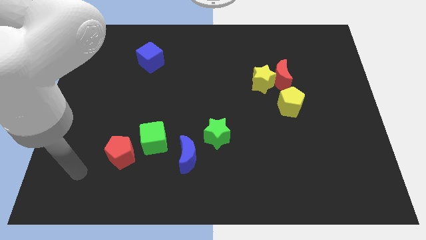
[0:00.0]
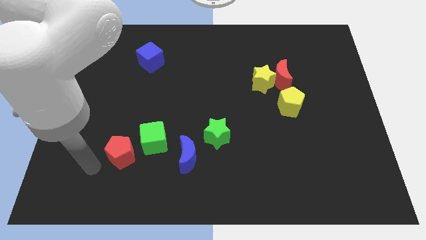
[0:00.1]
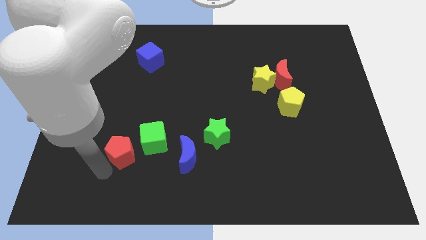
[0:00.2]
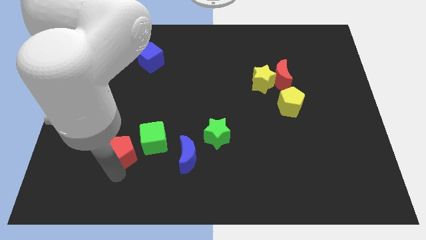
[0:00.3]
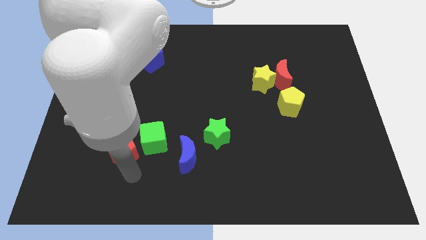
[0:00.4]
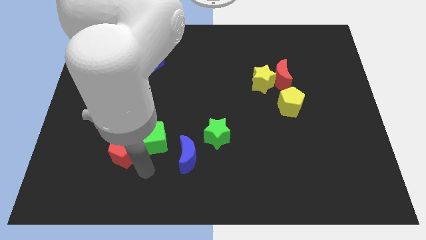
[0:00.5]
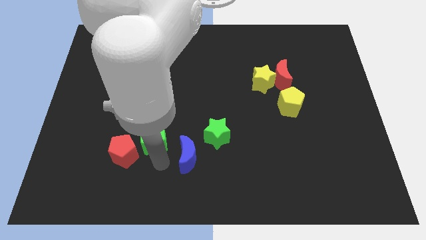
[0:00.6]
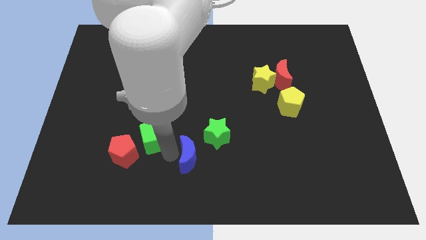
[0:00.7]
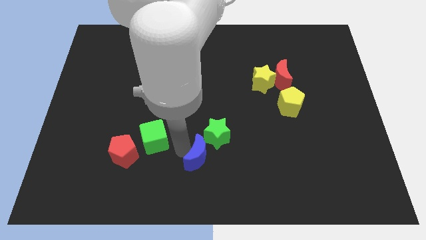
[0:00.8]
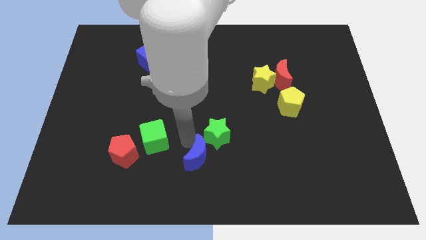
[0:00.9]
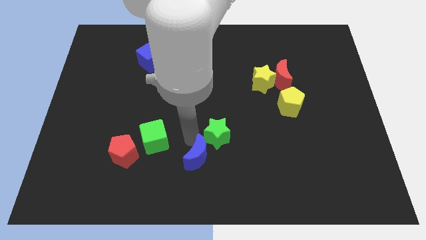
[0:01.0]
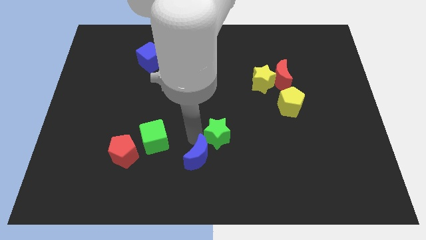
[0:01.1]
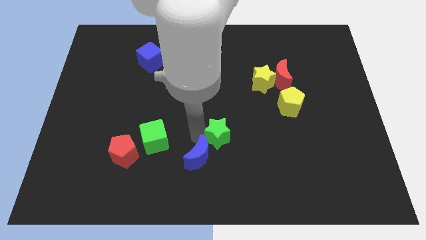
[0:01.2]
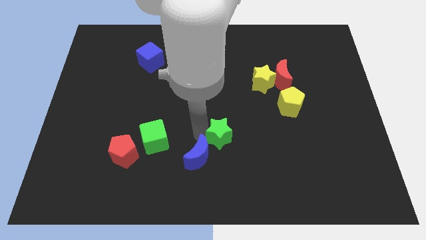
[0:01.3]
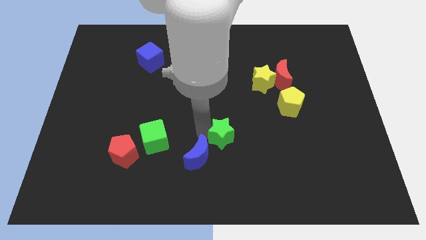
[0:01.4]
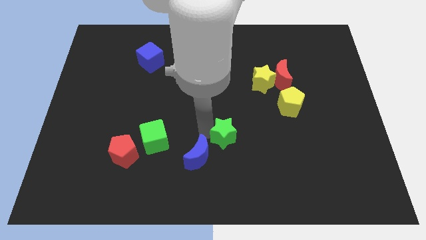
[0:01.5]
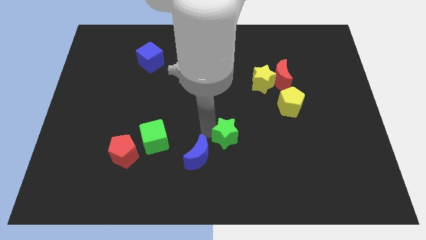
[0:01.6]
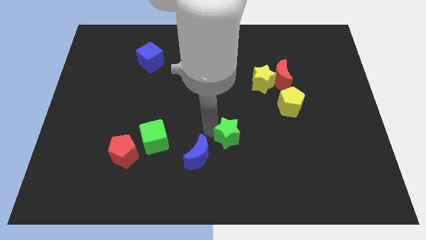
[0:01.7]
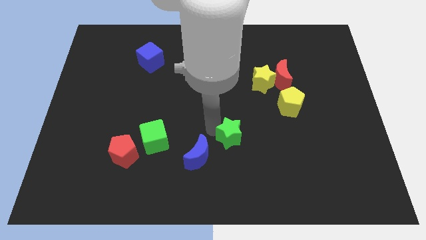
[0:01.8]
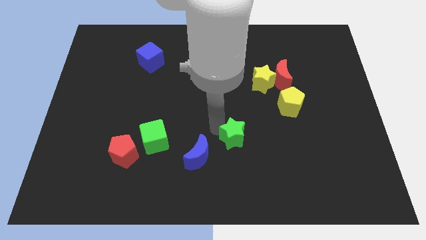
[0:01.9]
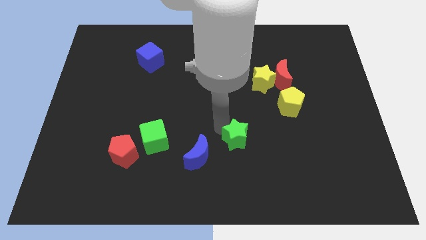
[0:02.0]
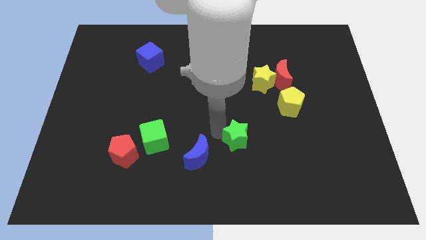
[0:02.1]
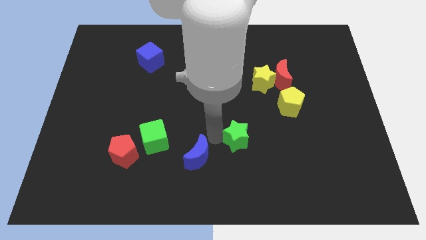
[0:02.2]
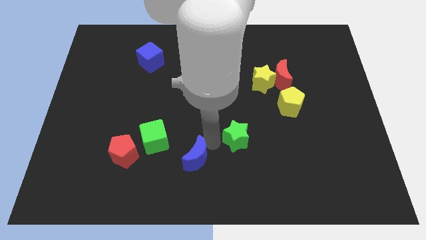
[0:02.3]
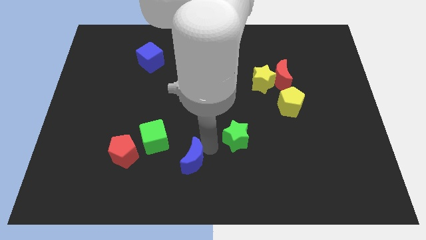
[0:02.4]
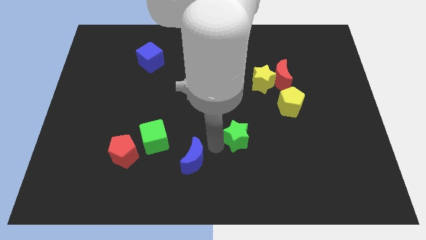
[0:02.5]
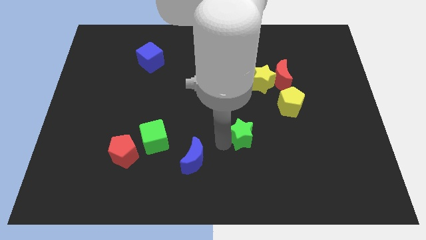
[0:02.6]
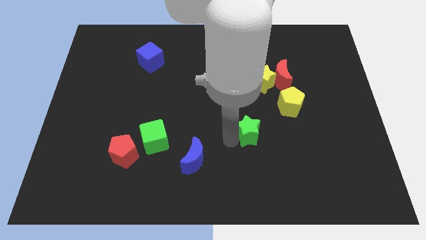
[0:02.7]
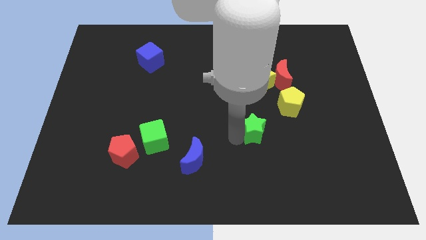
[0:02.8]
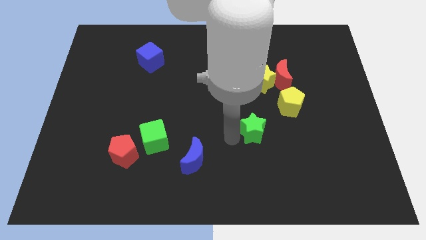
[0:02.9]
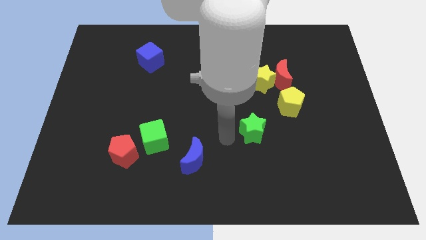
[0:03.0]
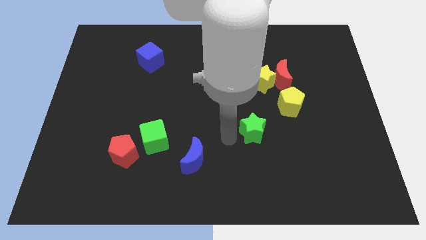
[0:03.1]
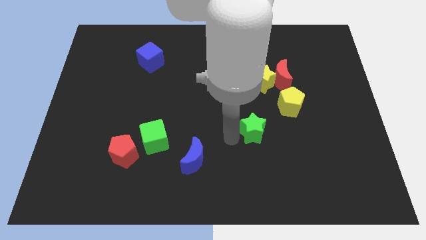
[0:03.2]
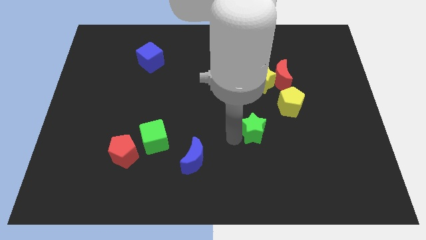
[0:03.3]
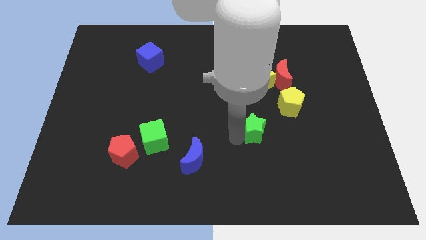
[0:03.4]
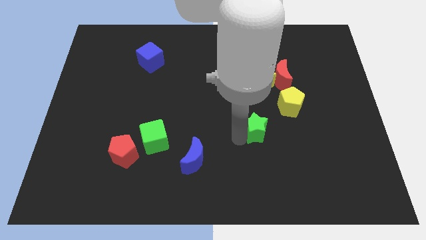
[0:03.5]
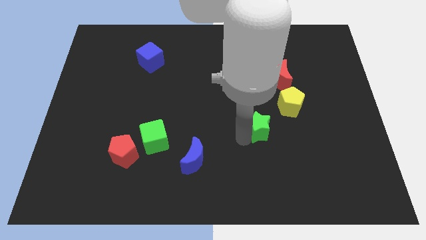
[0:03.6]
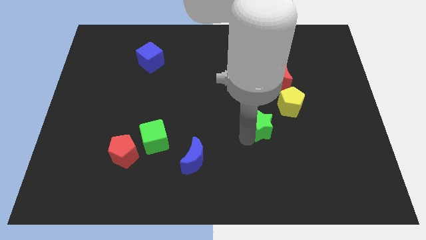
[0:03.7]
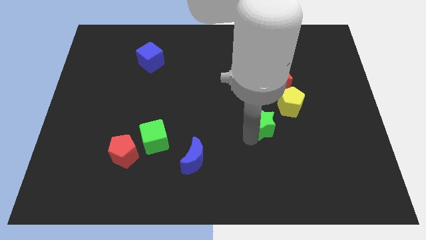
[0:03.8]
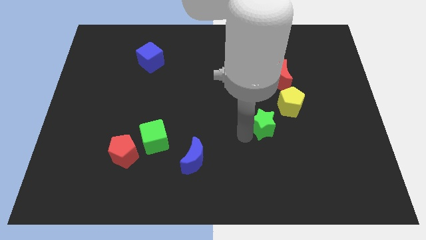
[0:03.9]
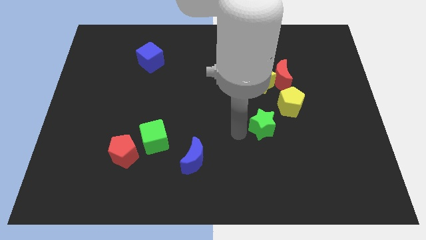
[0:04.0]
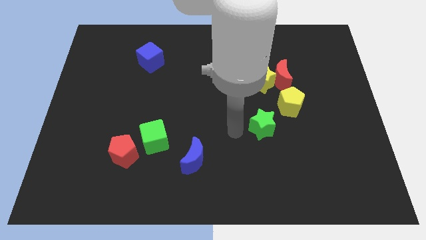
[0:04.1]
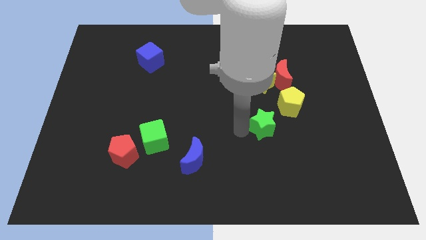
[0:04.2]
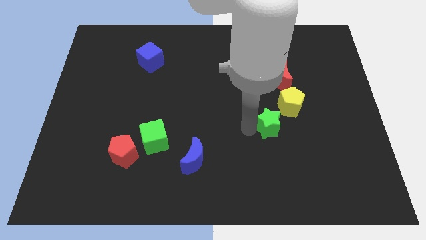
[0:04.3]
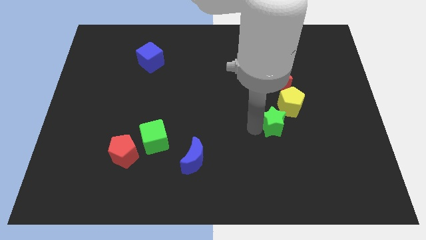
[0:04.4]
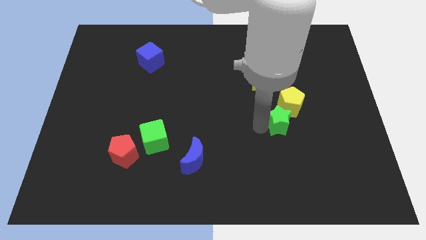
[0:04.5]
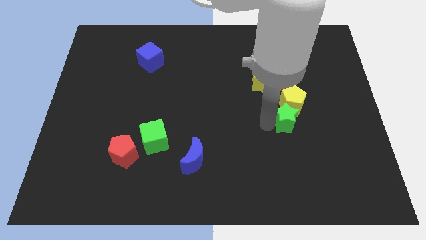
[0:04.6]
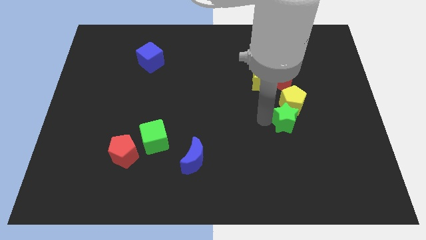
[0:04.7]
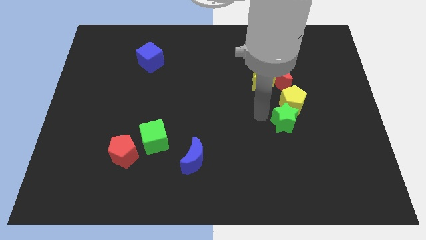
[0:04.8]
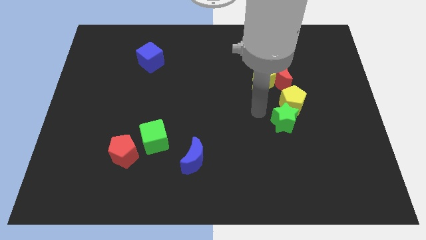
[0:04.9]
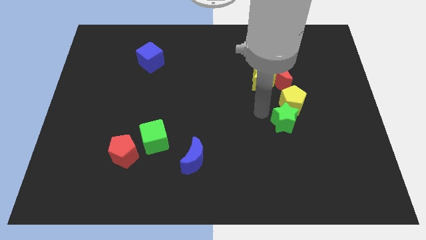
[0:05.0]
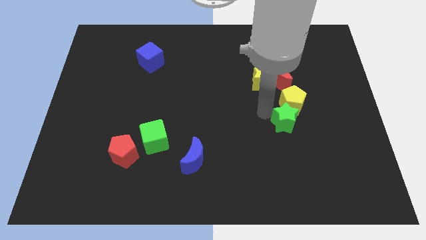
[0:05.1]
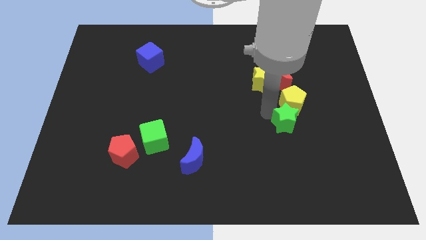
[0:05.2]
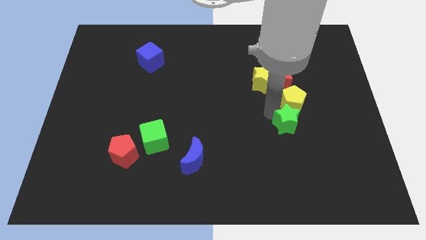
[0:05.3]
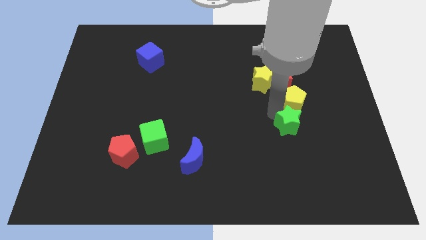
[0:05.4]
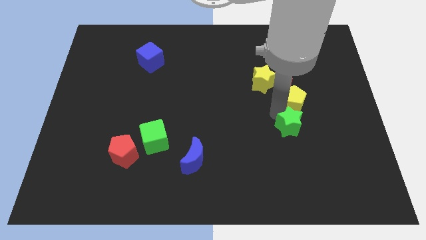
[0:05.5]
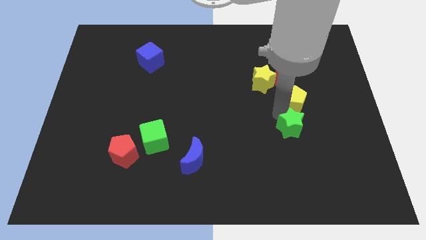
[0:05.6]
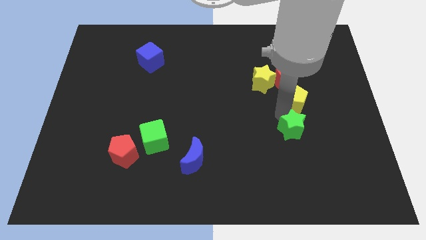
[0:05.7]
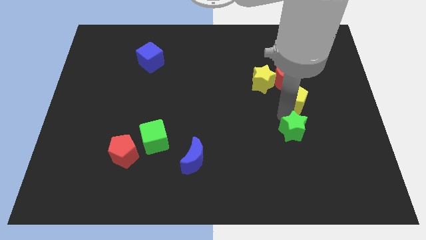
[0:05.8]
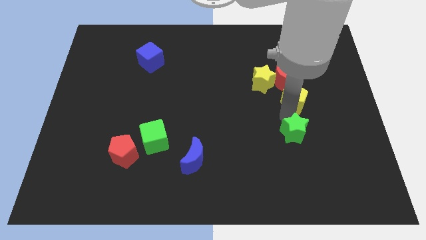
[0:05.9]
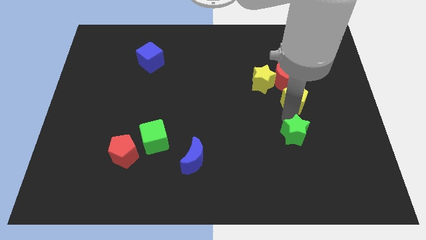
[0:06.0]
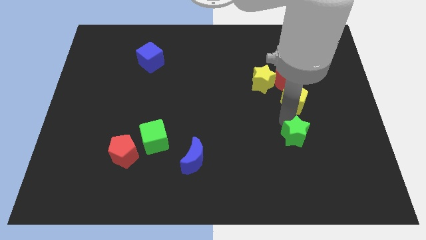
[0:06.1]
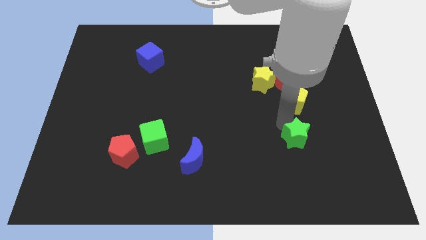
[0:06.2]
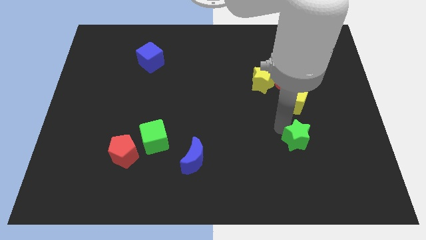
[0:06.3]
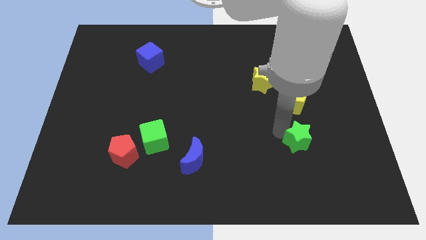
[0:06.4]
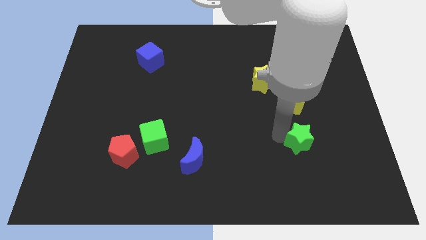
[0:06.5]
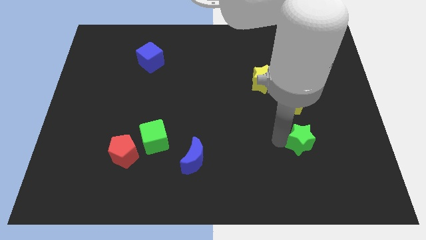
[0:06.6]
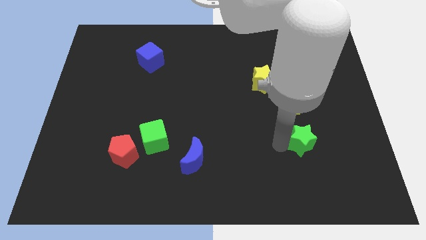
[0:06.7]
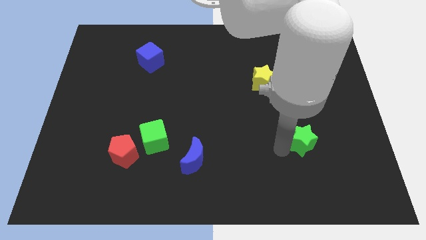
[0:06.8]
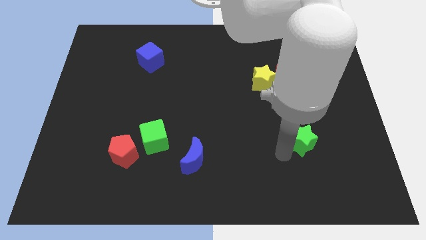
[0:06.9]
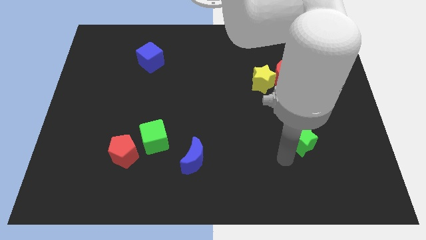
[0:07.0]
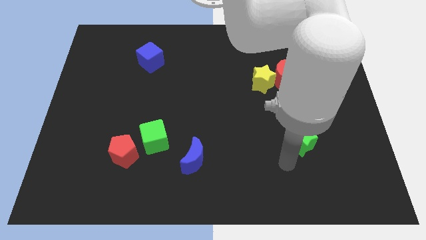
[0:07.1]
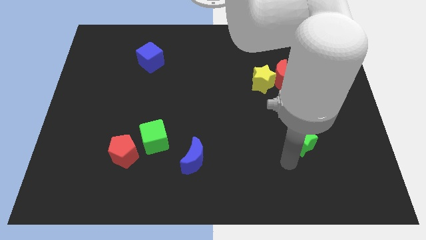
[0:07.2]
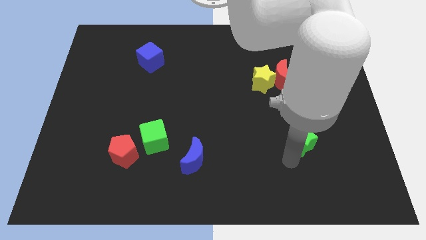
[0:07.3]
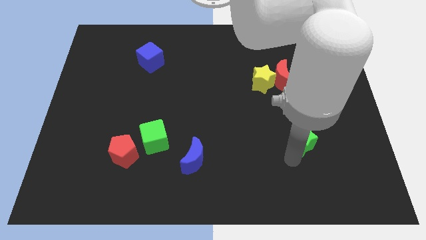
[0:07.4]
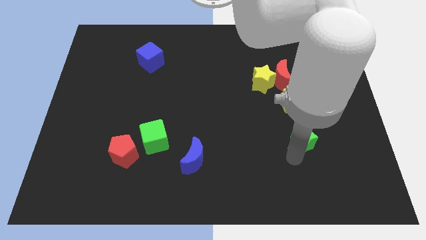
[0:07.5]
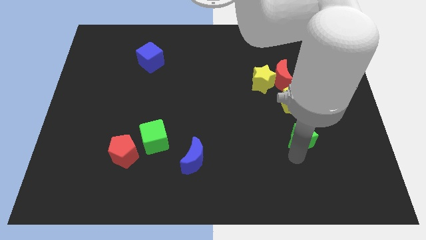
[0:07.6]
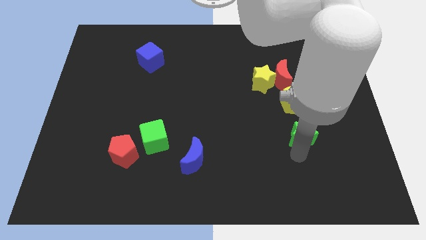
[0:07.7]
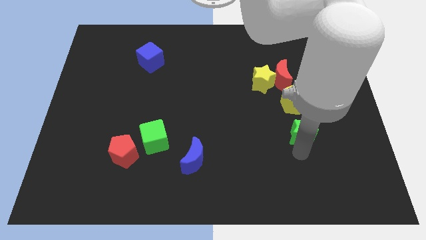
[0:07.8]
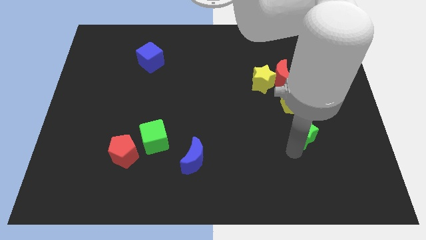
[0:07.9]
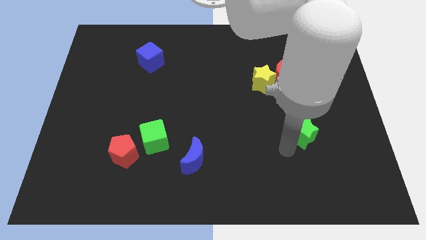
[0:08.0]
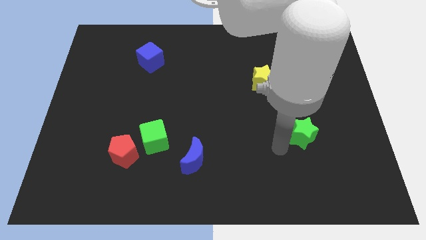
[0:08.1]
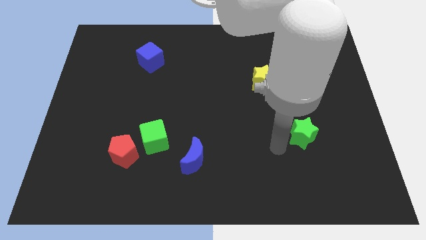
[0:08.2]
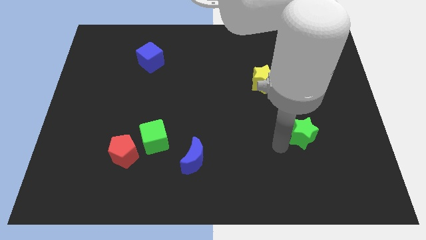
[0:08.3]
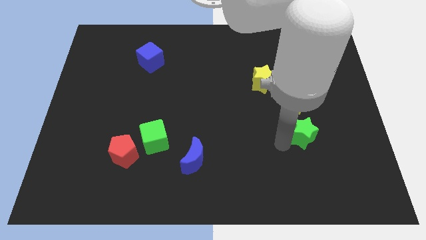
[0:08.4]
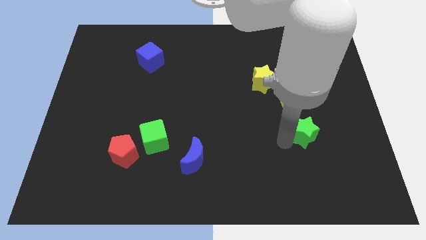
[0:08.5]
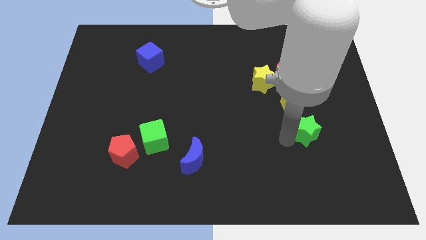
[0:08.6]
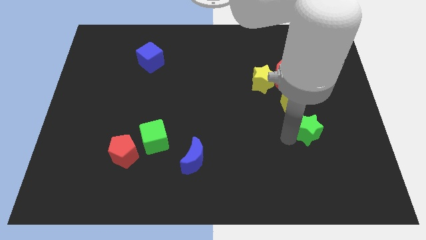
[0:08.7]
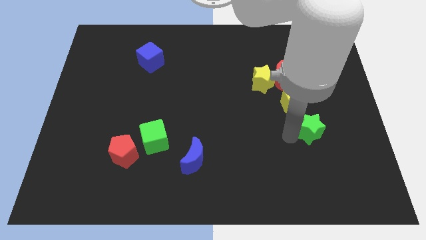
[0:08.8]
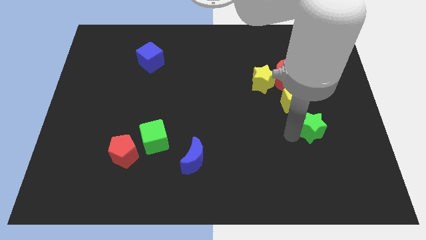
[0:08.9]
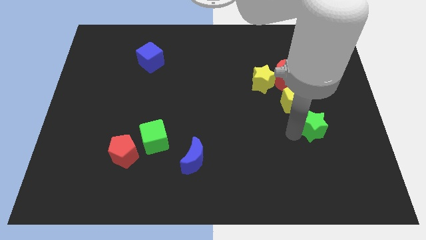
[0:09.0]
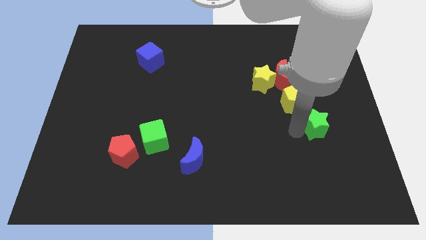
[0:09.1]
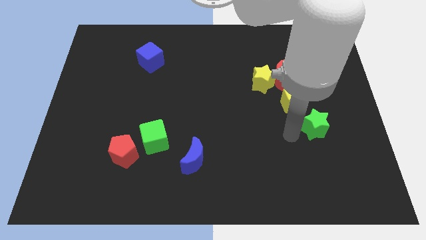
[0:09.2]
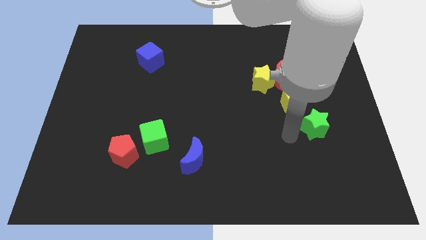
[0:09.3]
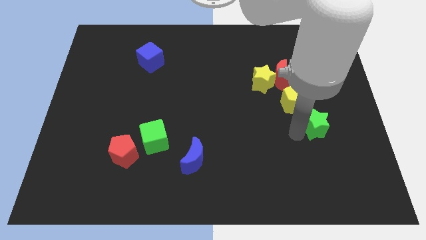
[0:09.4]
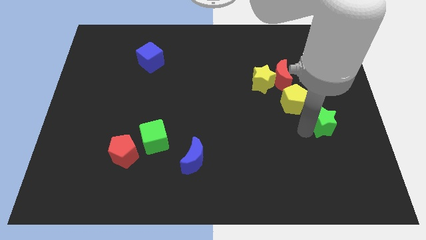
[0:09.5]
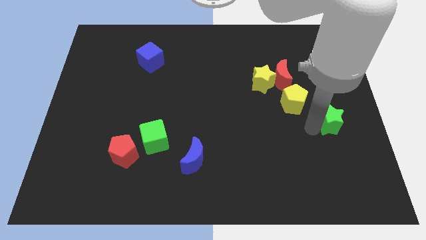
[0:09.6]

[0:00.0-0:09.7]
put the green star to the center right
